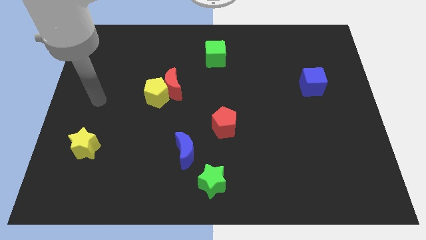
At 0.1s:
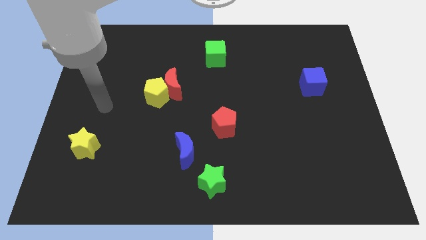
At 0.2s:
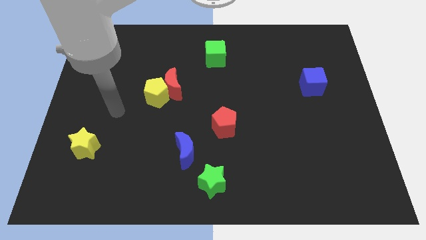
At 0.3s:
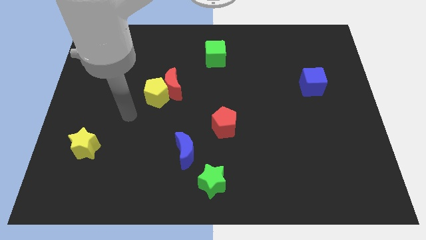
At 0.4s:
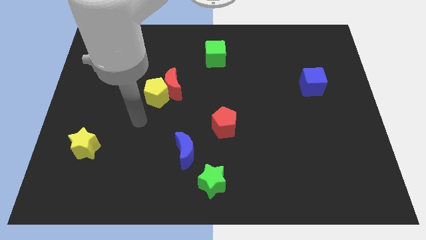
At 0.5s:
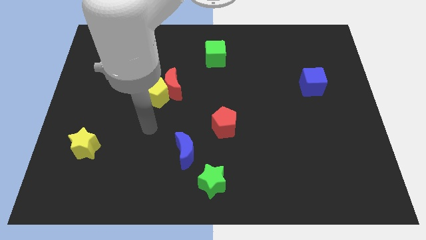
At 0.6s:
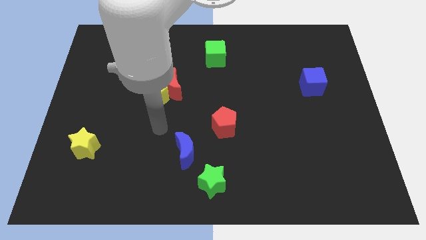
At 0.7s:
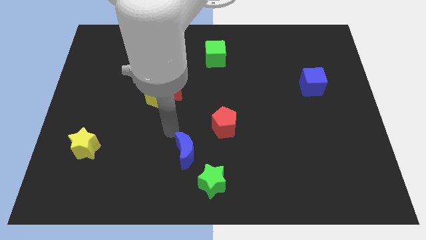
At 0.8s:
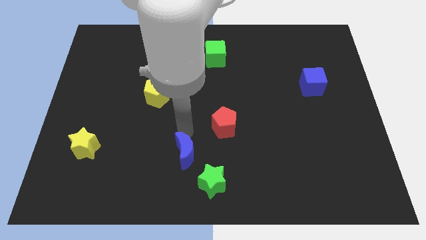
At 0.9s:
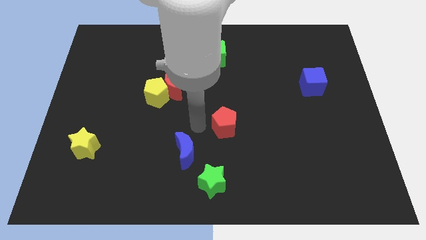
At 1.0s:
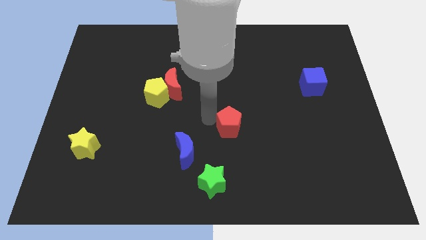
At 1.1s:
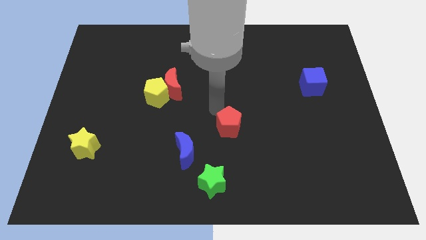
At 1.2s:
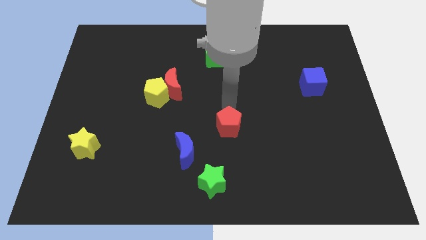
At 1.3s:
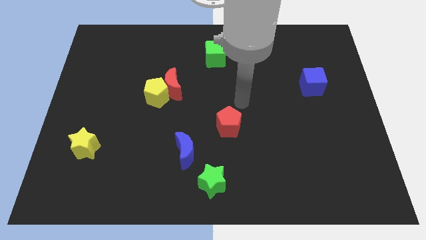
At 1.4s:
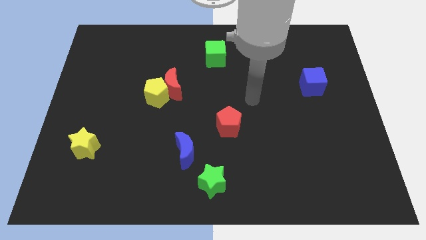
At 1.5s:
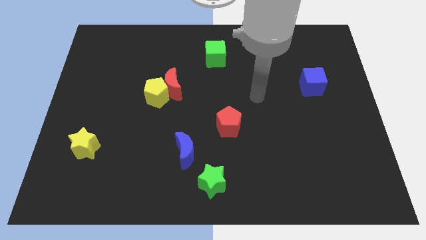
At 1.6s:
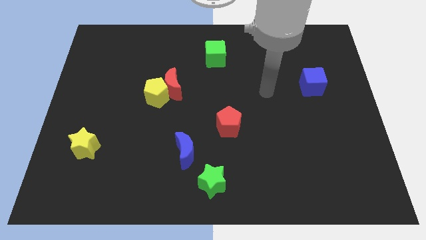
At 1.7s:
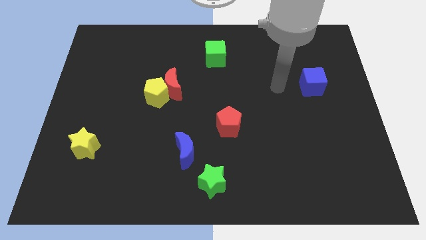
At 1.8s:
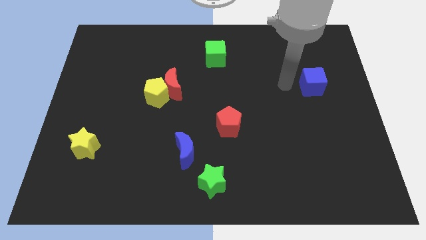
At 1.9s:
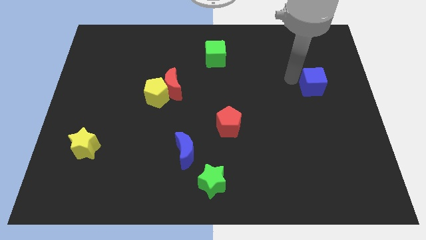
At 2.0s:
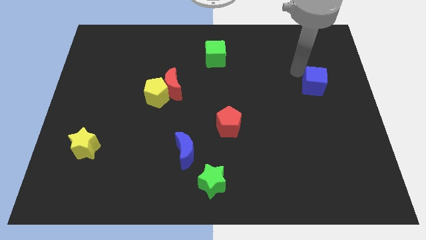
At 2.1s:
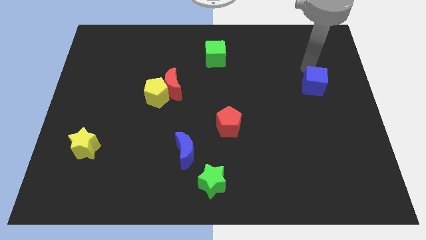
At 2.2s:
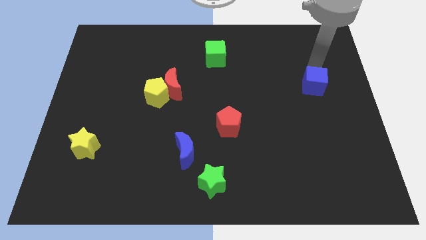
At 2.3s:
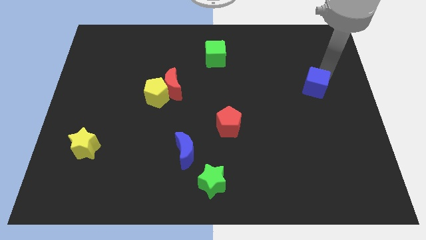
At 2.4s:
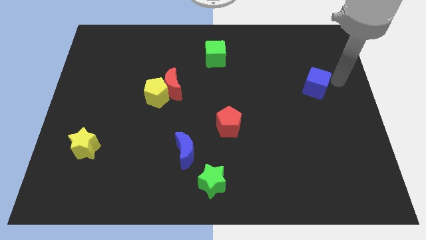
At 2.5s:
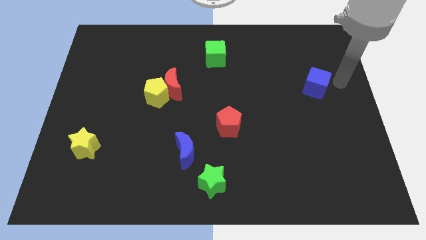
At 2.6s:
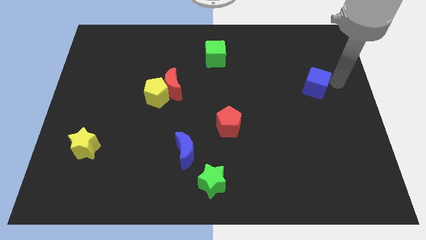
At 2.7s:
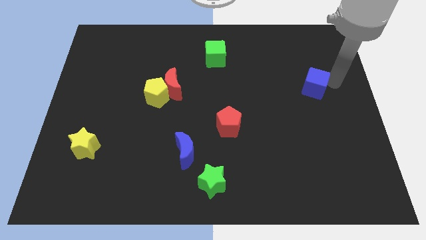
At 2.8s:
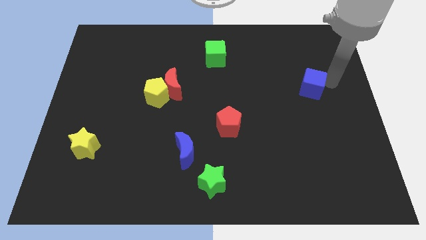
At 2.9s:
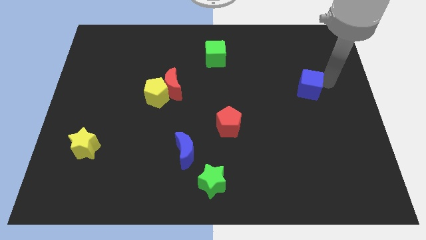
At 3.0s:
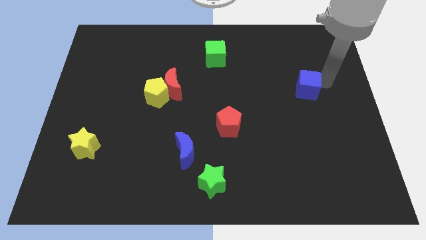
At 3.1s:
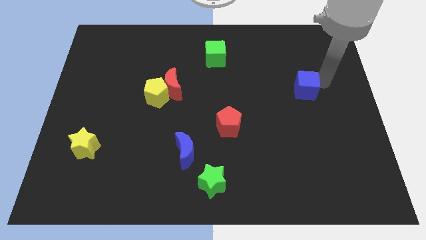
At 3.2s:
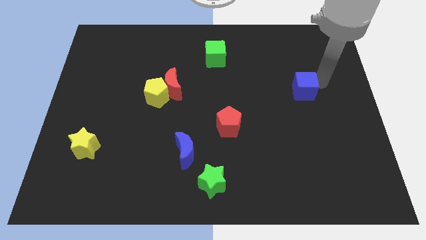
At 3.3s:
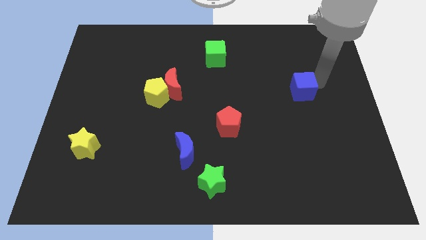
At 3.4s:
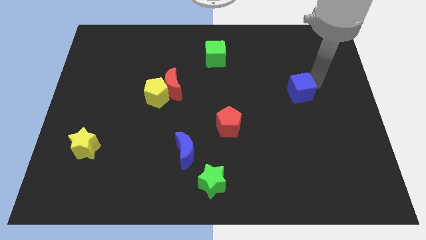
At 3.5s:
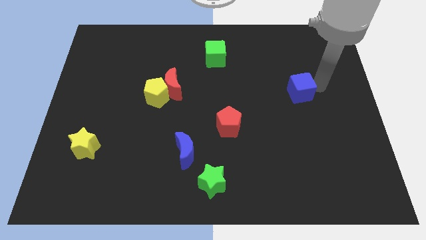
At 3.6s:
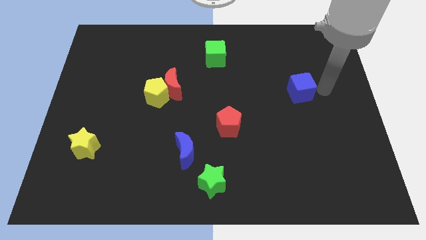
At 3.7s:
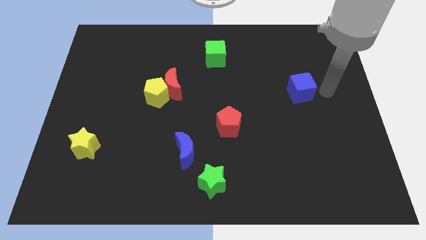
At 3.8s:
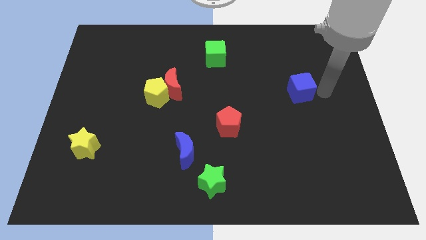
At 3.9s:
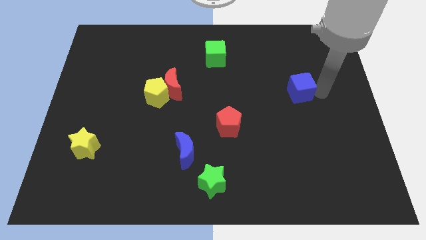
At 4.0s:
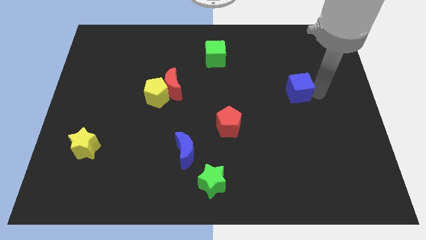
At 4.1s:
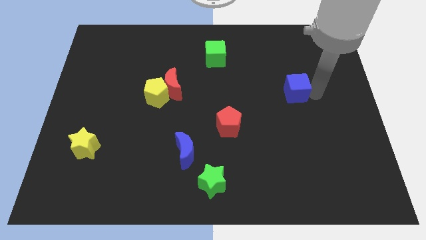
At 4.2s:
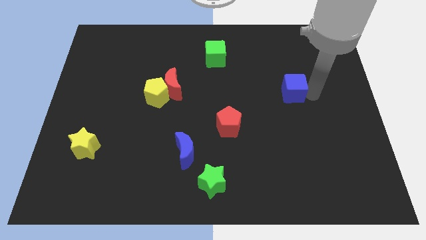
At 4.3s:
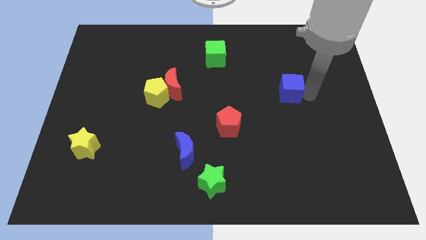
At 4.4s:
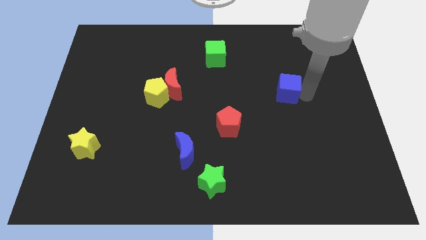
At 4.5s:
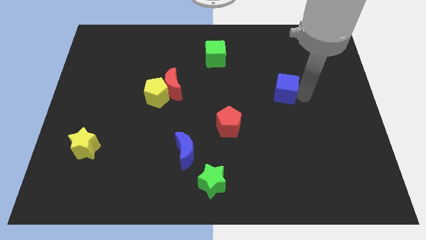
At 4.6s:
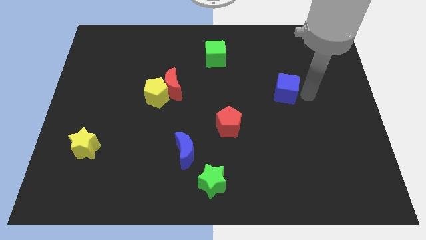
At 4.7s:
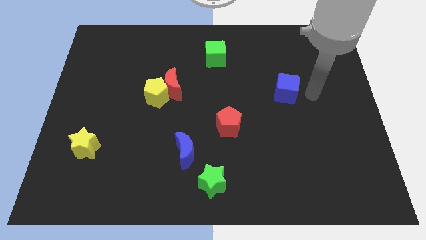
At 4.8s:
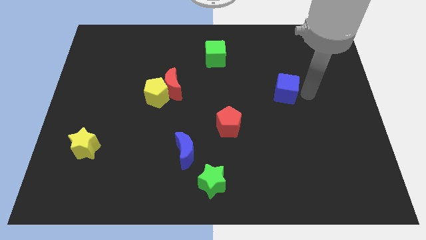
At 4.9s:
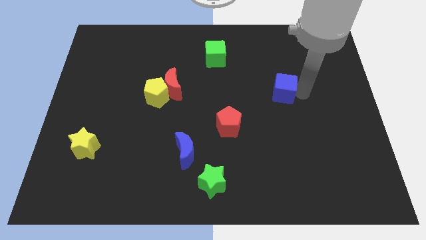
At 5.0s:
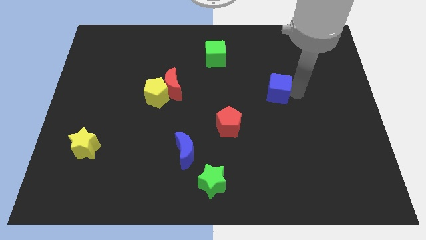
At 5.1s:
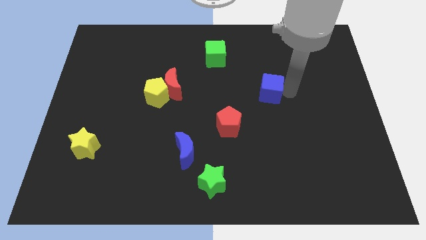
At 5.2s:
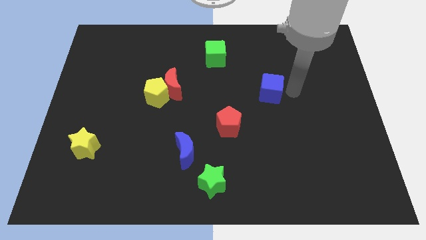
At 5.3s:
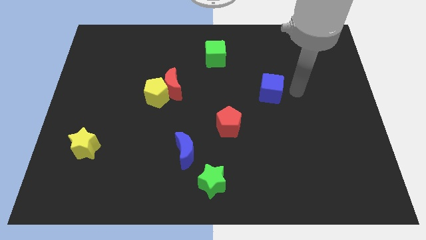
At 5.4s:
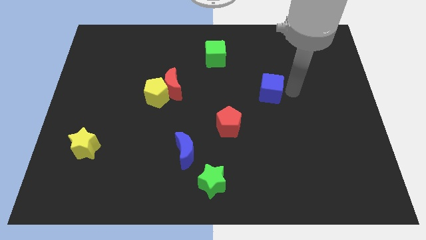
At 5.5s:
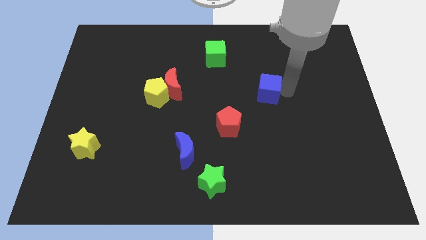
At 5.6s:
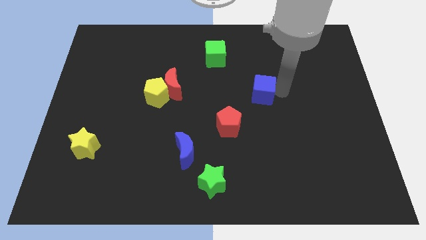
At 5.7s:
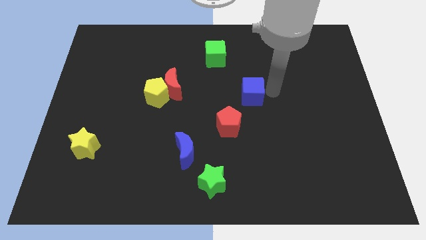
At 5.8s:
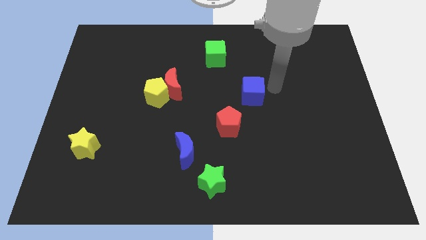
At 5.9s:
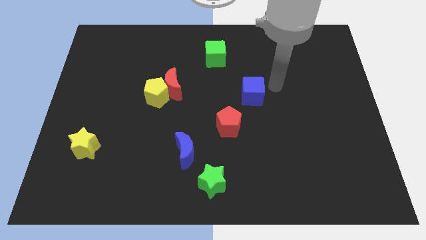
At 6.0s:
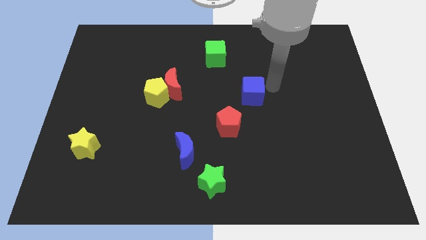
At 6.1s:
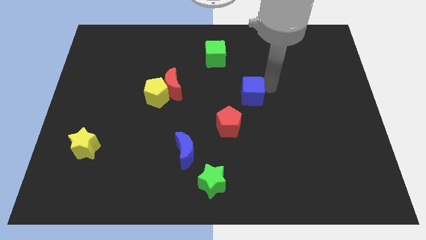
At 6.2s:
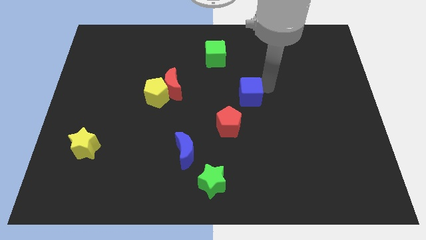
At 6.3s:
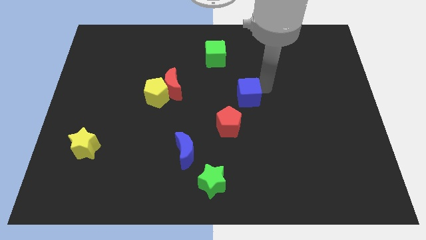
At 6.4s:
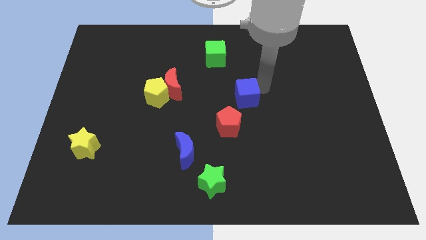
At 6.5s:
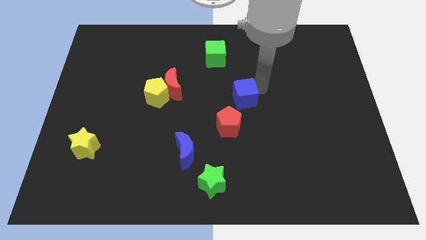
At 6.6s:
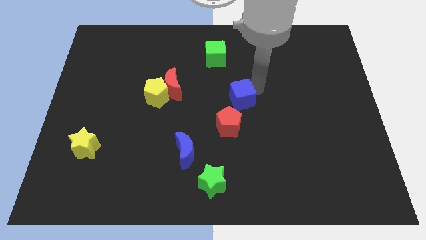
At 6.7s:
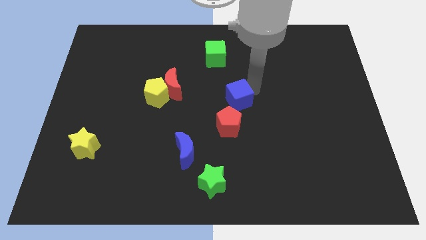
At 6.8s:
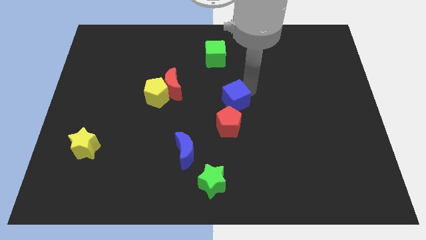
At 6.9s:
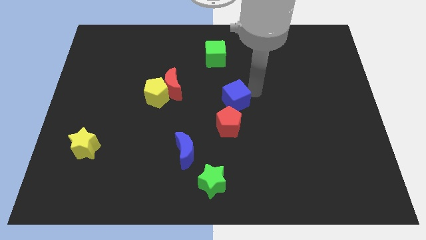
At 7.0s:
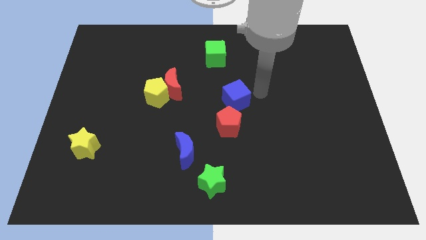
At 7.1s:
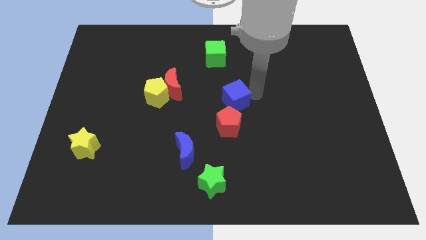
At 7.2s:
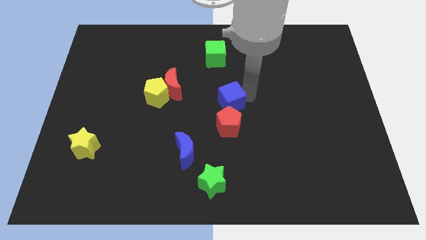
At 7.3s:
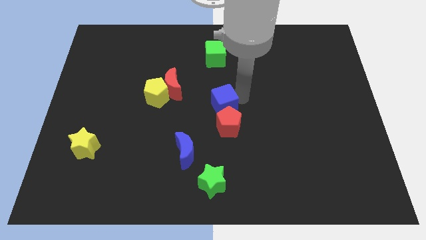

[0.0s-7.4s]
move the blue cube to the top left of the red pentagon

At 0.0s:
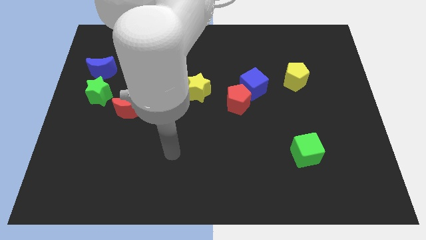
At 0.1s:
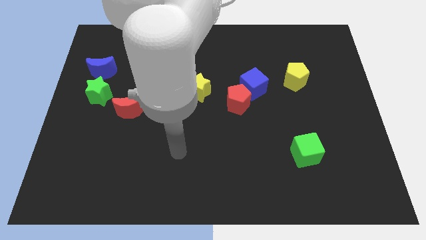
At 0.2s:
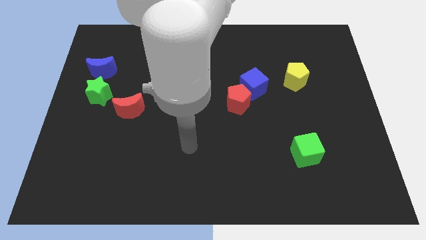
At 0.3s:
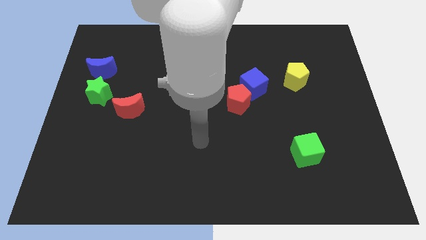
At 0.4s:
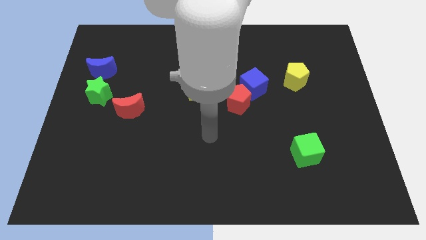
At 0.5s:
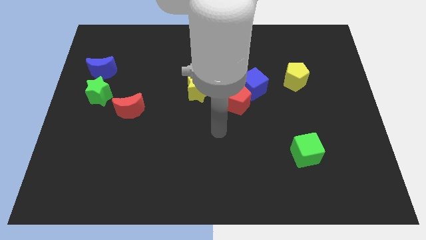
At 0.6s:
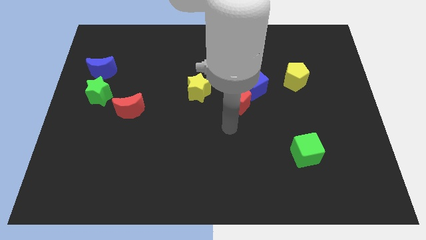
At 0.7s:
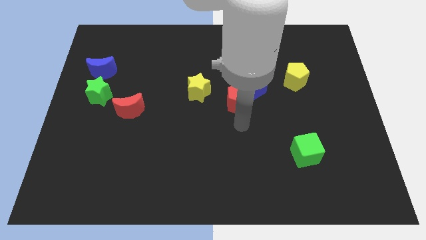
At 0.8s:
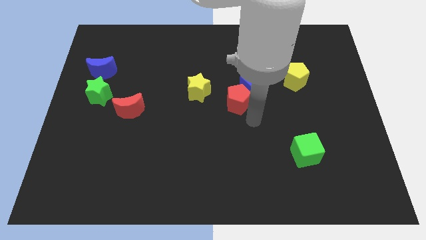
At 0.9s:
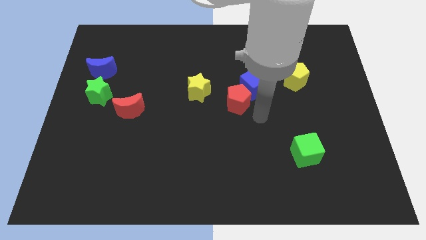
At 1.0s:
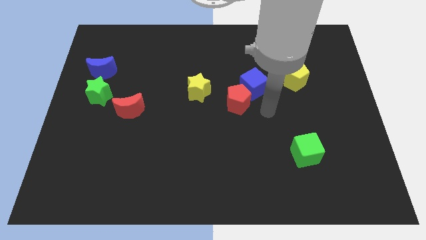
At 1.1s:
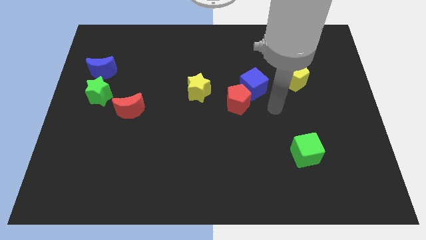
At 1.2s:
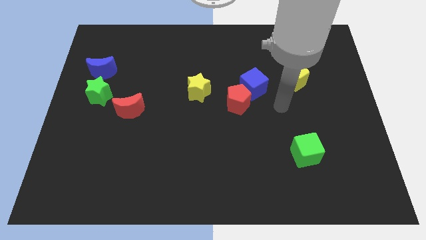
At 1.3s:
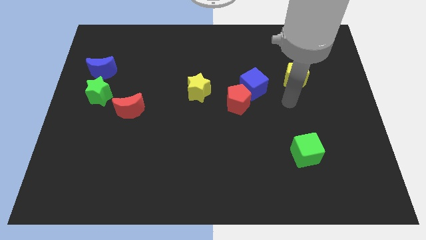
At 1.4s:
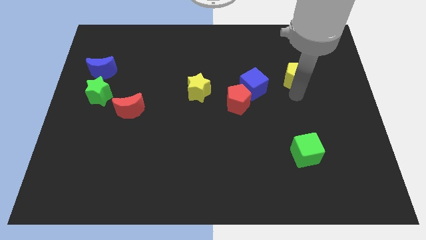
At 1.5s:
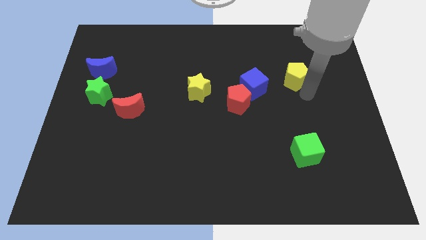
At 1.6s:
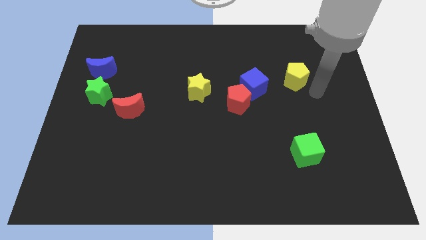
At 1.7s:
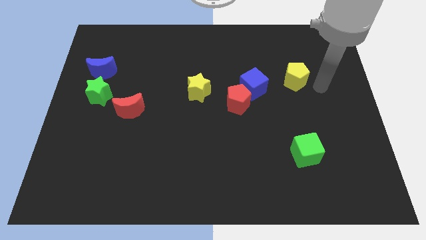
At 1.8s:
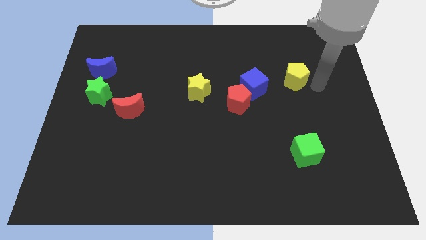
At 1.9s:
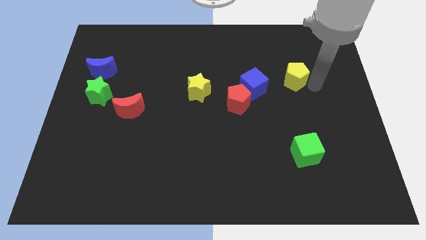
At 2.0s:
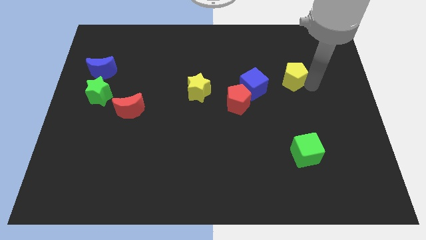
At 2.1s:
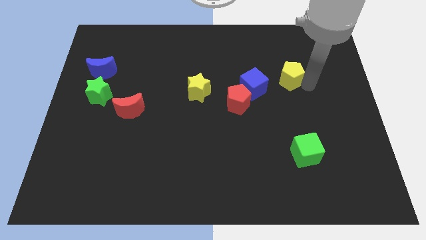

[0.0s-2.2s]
push the yellow pentagon diagonally up and to the right of the blue cube
